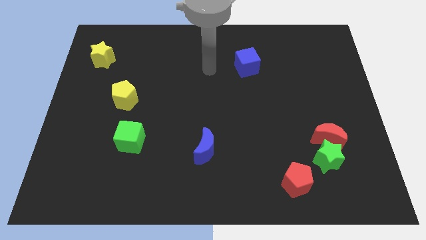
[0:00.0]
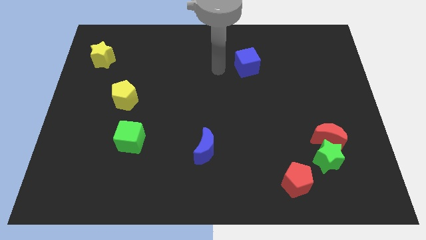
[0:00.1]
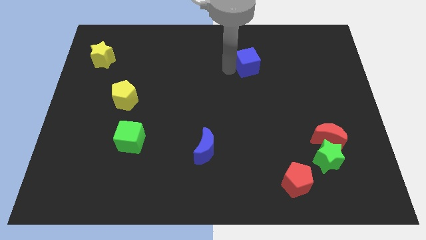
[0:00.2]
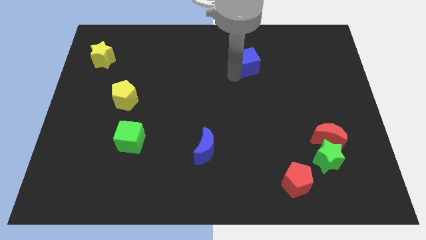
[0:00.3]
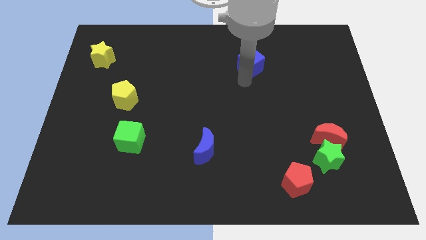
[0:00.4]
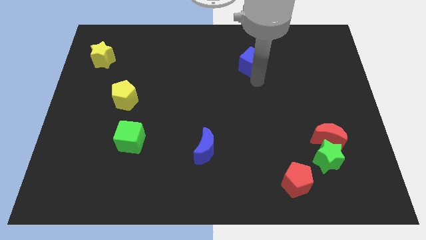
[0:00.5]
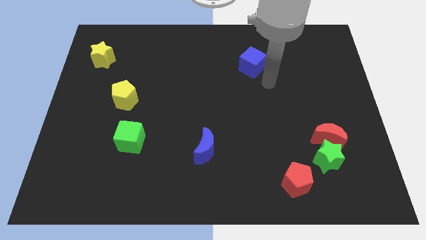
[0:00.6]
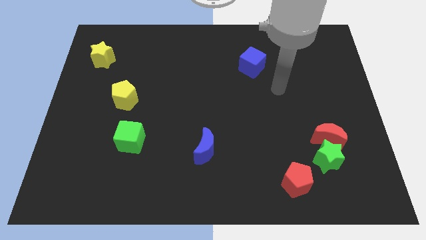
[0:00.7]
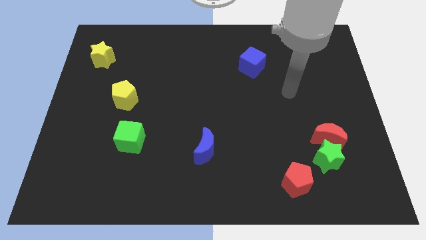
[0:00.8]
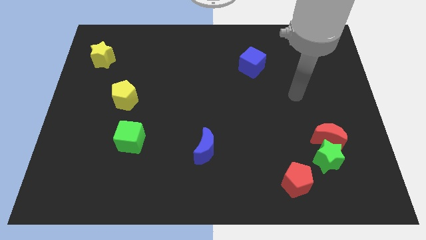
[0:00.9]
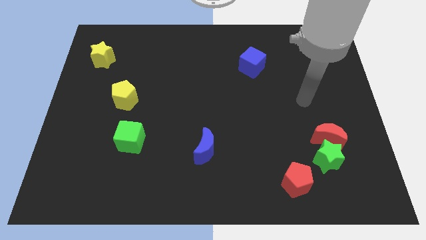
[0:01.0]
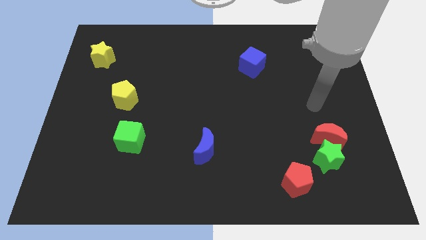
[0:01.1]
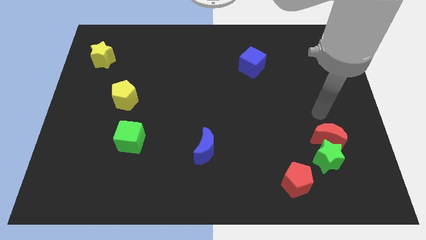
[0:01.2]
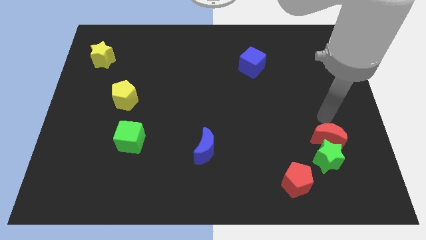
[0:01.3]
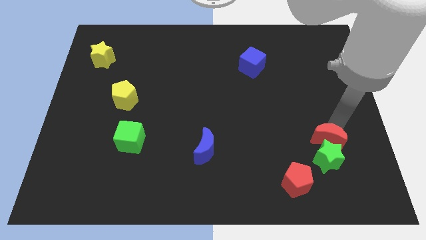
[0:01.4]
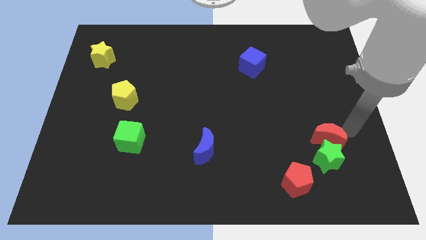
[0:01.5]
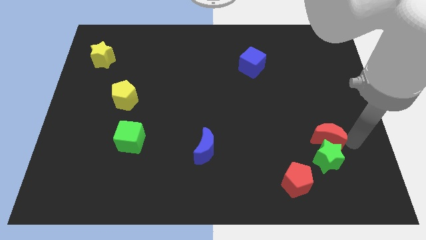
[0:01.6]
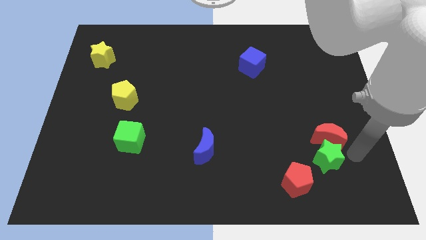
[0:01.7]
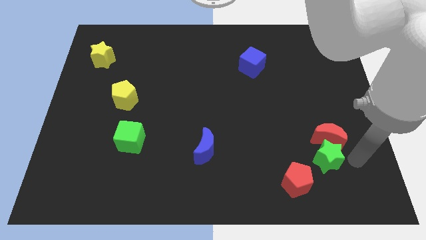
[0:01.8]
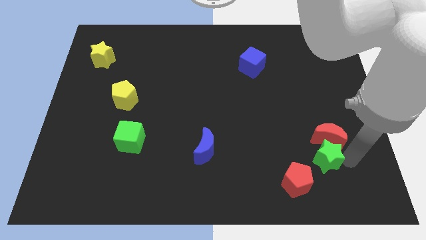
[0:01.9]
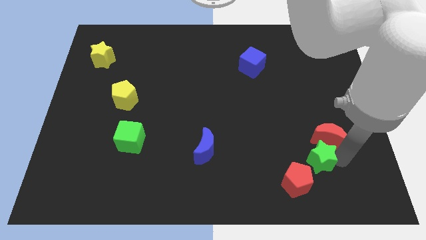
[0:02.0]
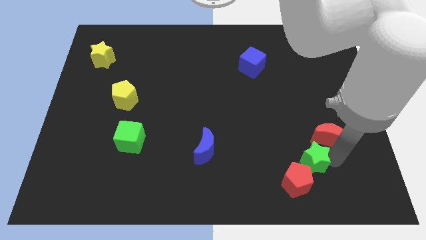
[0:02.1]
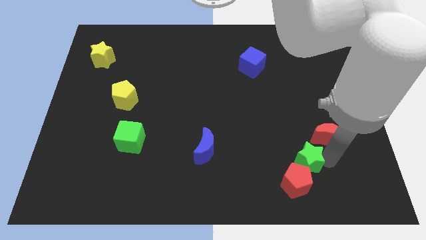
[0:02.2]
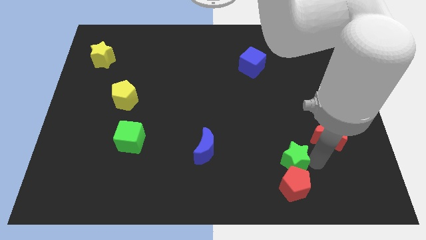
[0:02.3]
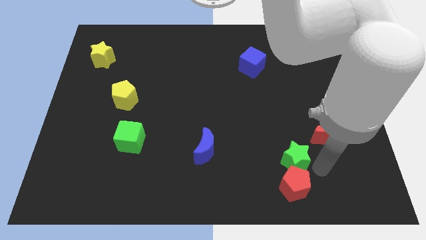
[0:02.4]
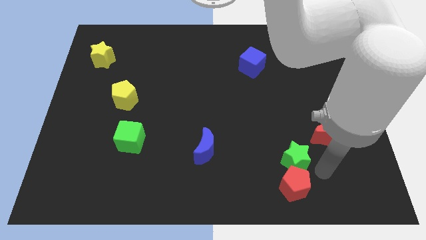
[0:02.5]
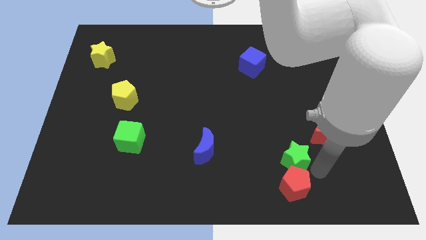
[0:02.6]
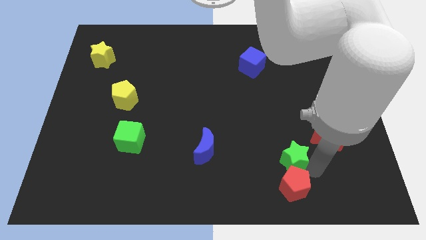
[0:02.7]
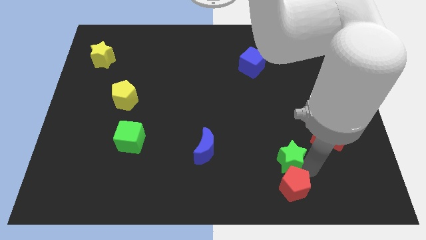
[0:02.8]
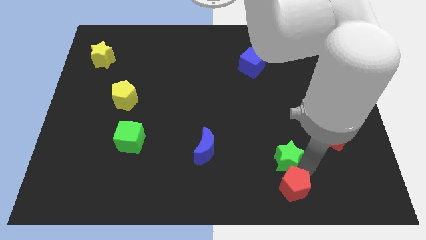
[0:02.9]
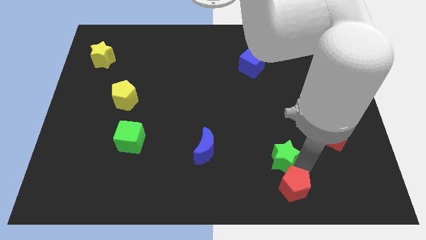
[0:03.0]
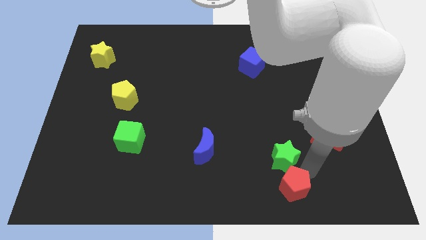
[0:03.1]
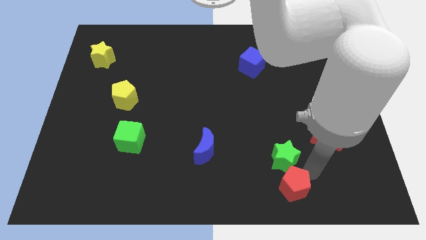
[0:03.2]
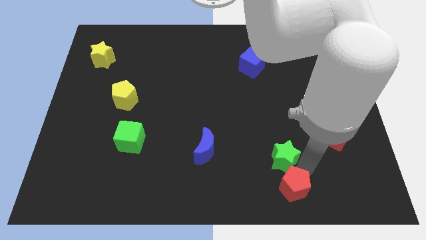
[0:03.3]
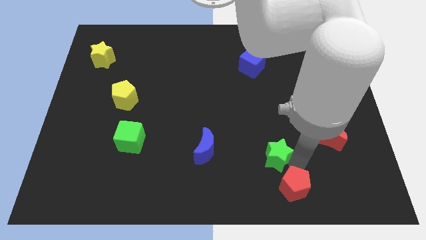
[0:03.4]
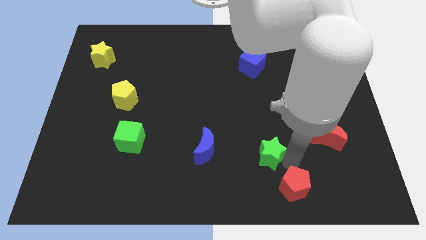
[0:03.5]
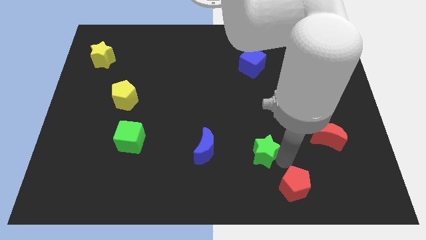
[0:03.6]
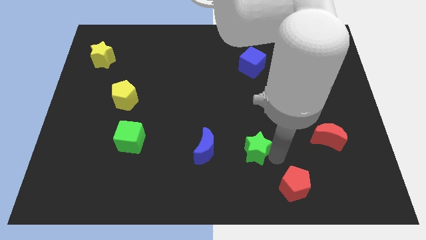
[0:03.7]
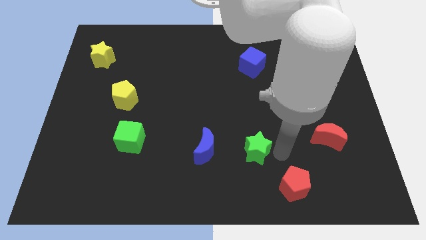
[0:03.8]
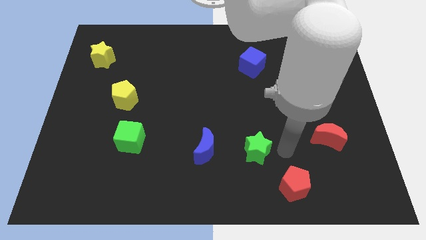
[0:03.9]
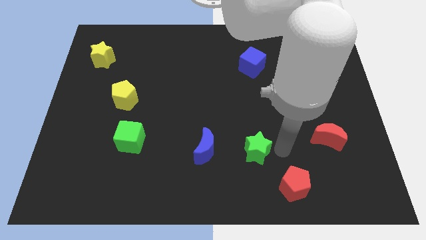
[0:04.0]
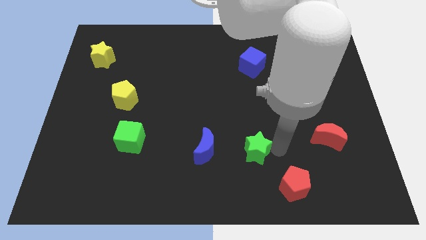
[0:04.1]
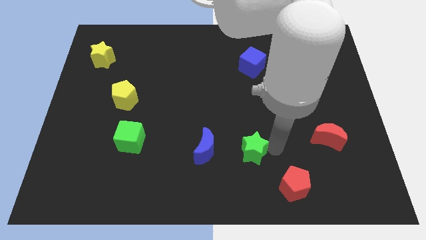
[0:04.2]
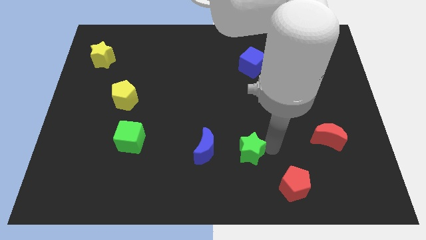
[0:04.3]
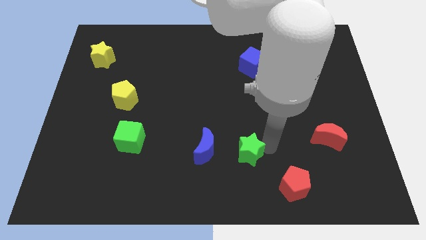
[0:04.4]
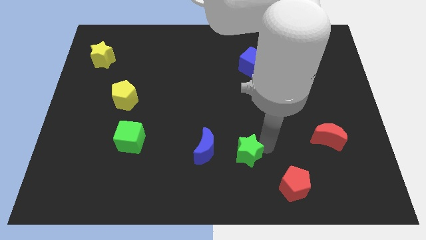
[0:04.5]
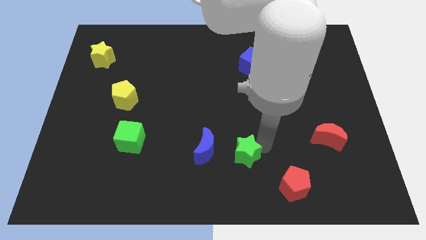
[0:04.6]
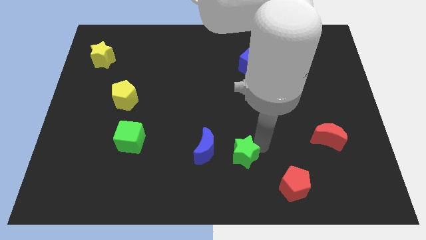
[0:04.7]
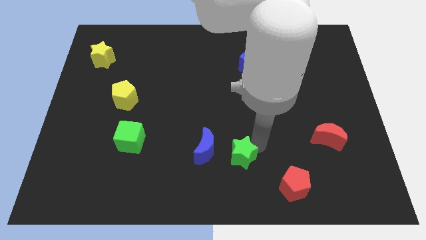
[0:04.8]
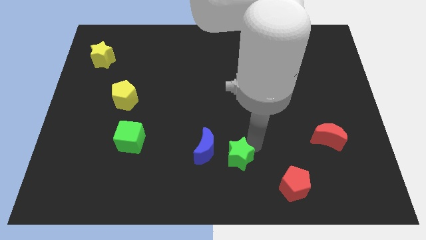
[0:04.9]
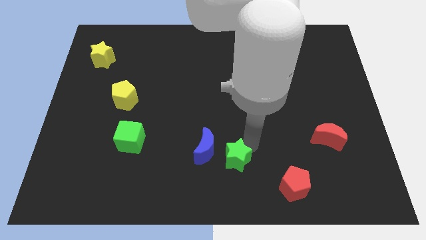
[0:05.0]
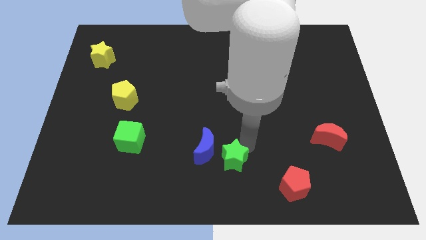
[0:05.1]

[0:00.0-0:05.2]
put the green star towards the blue moon

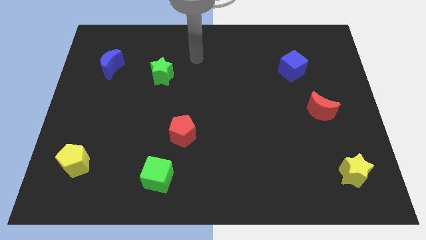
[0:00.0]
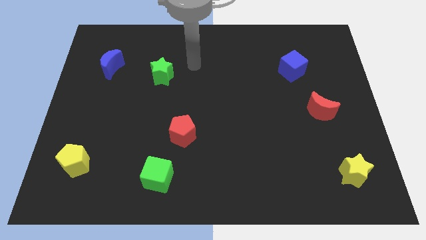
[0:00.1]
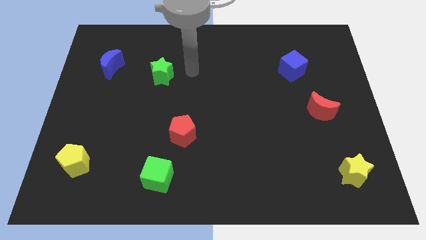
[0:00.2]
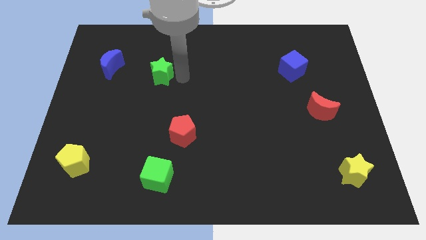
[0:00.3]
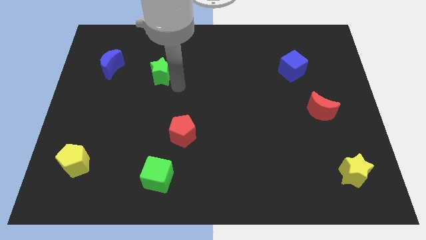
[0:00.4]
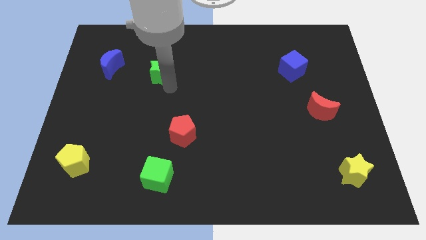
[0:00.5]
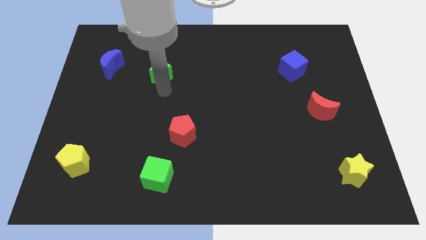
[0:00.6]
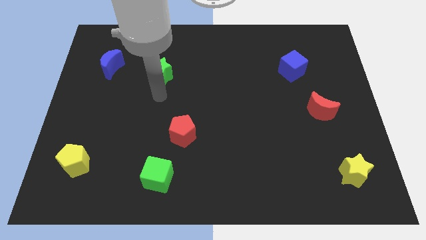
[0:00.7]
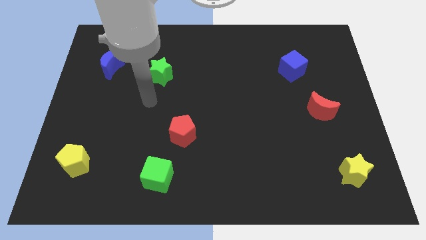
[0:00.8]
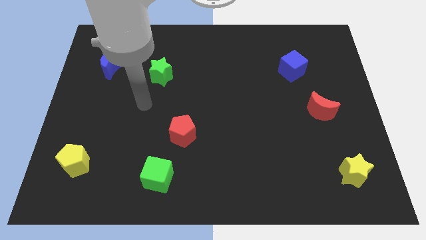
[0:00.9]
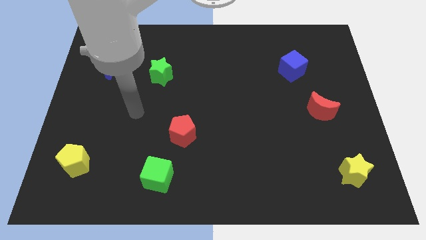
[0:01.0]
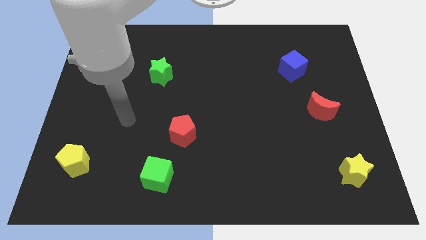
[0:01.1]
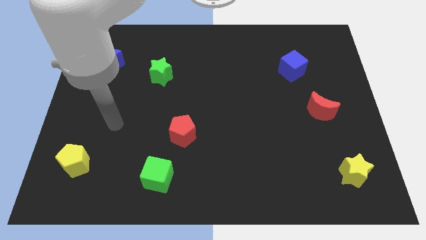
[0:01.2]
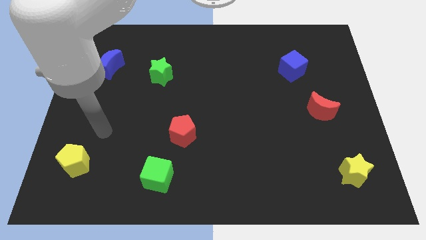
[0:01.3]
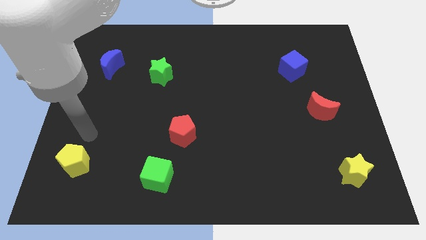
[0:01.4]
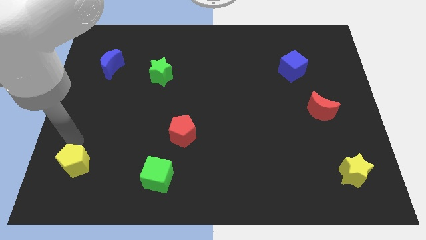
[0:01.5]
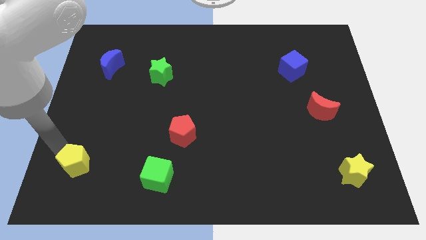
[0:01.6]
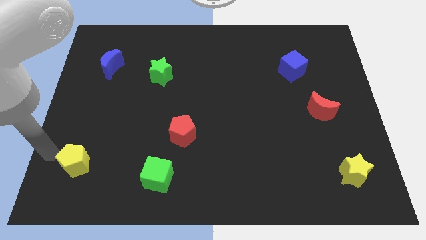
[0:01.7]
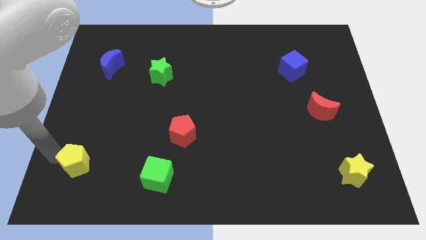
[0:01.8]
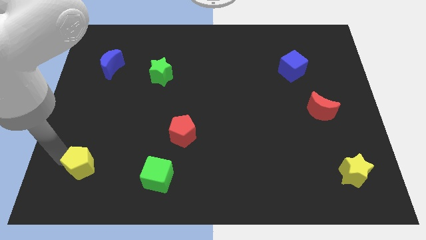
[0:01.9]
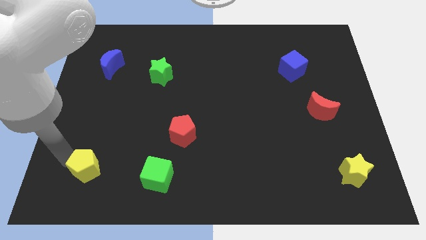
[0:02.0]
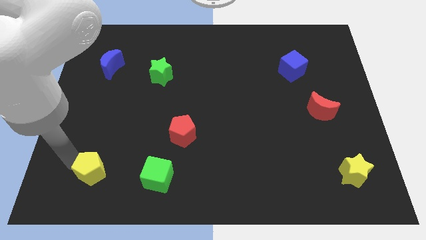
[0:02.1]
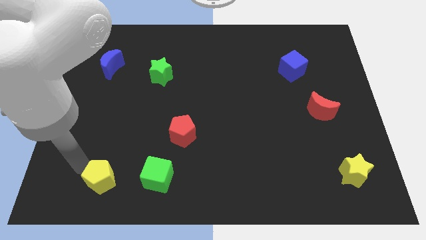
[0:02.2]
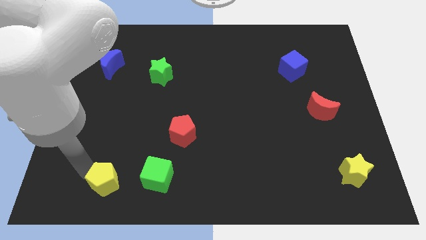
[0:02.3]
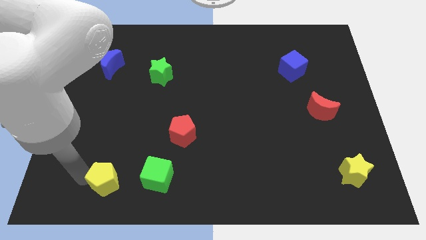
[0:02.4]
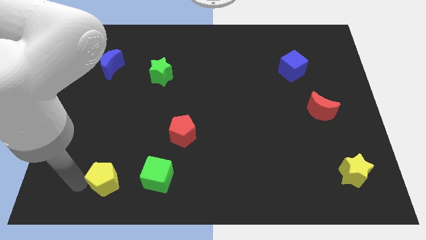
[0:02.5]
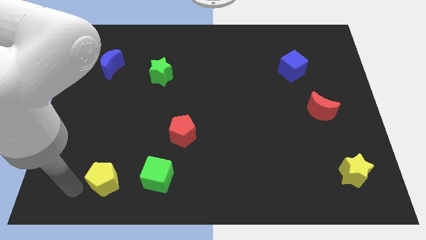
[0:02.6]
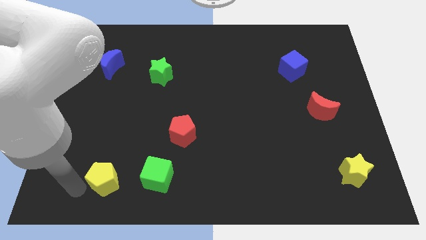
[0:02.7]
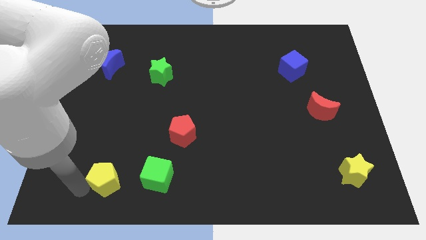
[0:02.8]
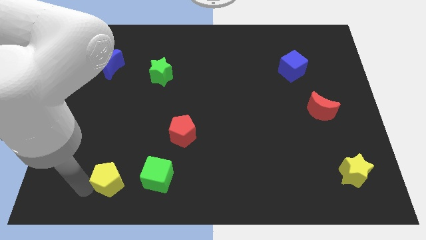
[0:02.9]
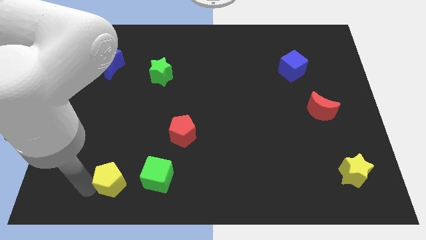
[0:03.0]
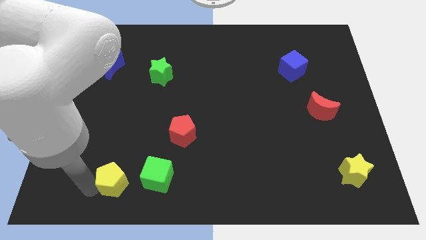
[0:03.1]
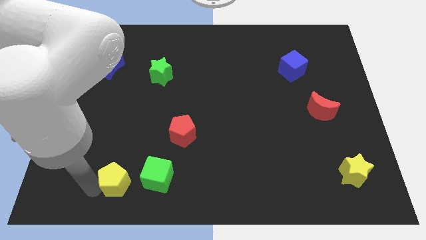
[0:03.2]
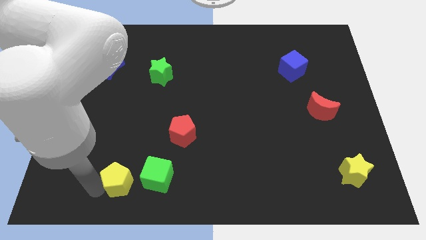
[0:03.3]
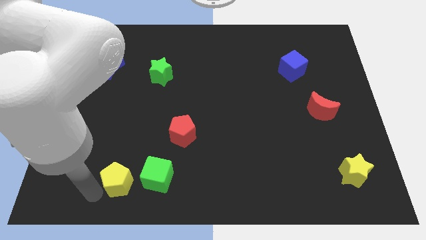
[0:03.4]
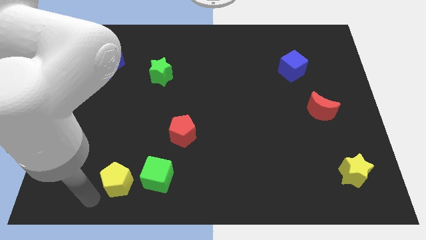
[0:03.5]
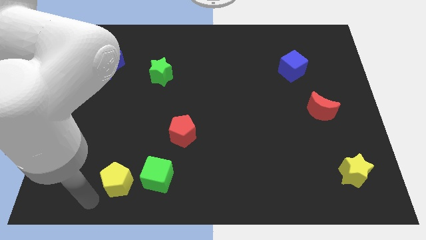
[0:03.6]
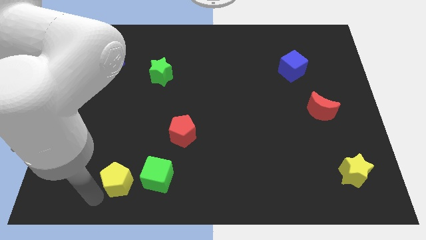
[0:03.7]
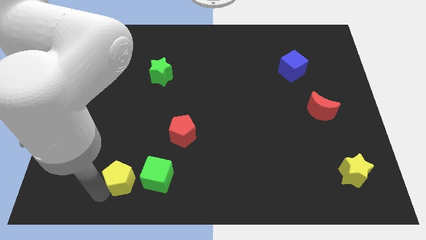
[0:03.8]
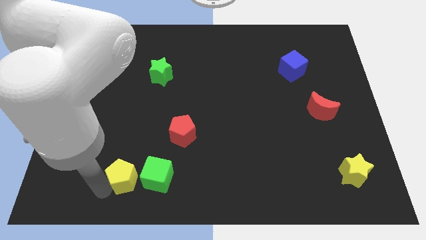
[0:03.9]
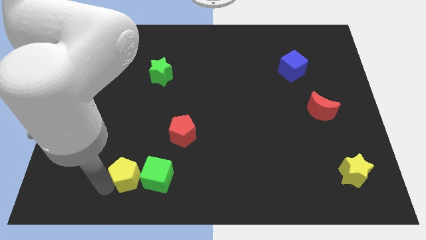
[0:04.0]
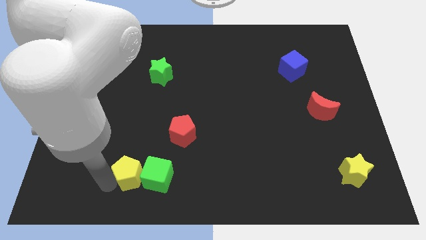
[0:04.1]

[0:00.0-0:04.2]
push the yellow pentagon towards the green cube
